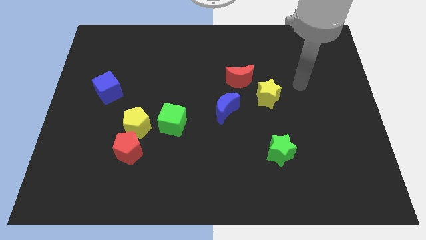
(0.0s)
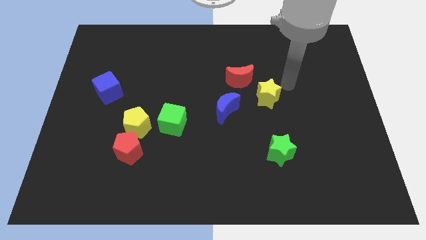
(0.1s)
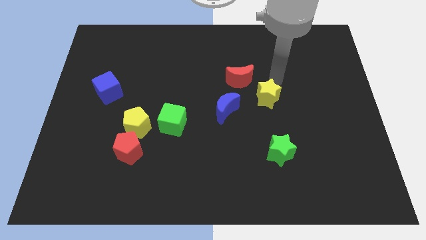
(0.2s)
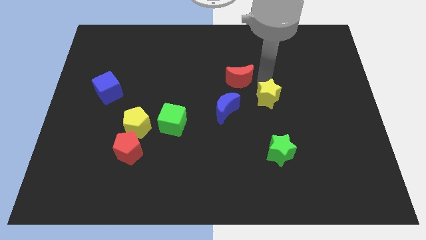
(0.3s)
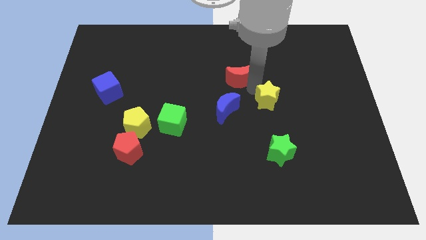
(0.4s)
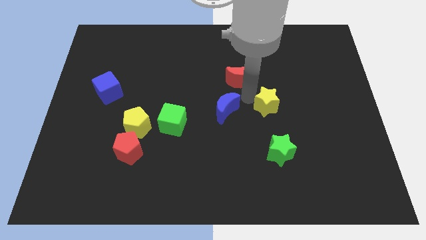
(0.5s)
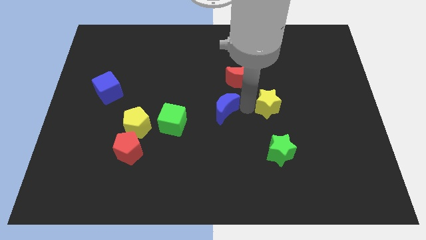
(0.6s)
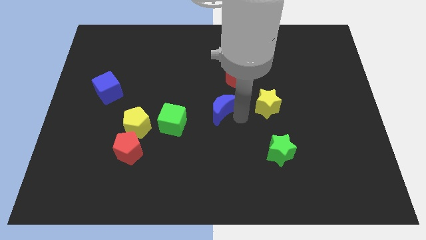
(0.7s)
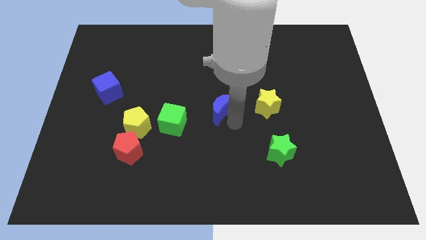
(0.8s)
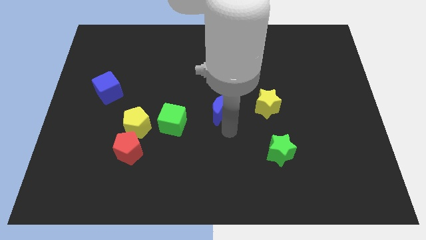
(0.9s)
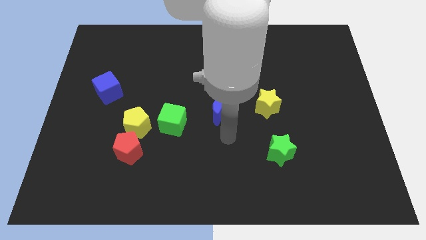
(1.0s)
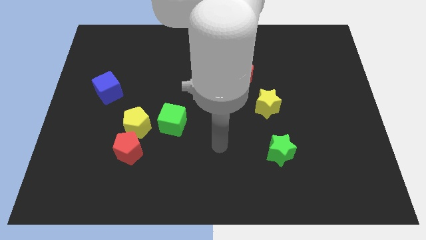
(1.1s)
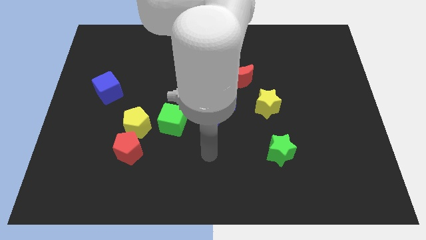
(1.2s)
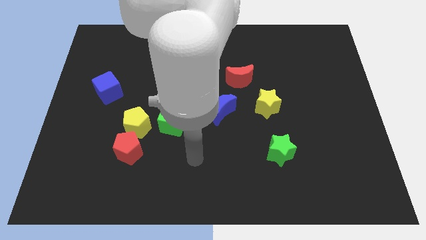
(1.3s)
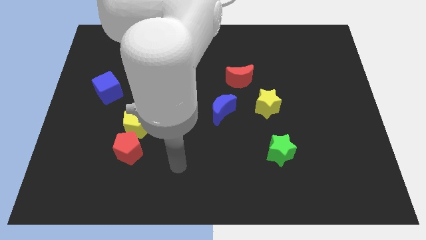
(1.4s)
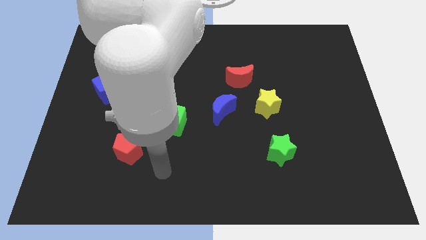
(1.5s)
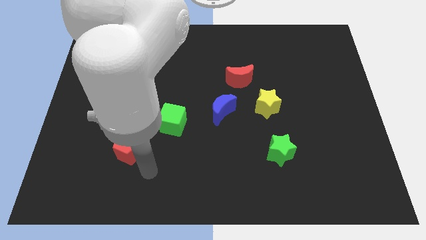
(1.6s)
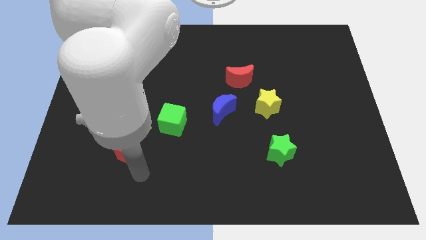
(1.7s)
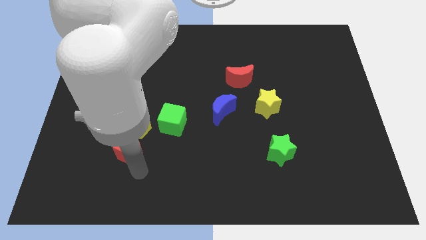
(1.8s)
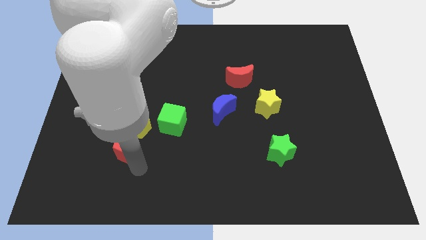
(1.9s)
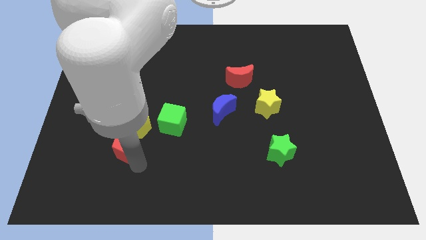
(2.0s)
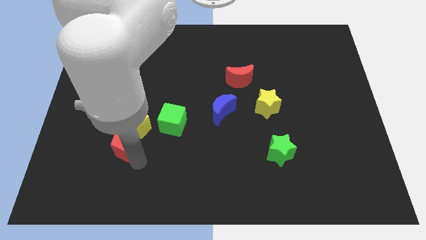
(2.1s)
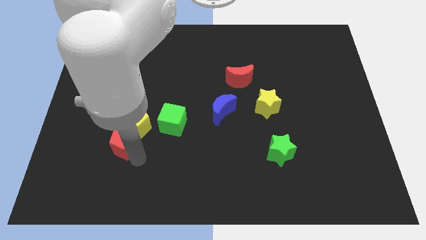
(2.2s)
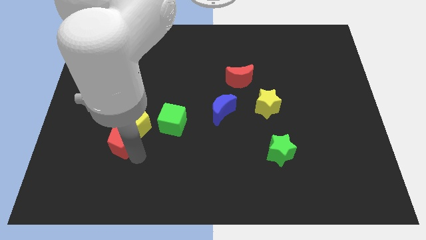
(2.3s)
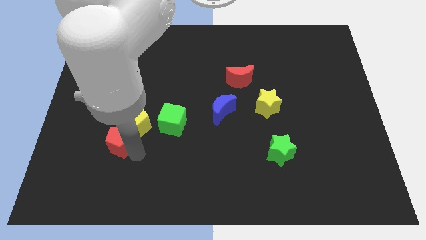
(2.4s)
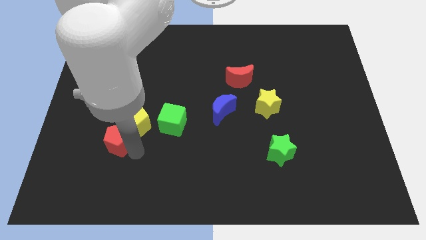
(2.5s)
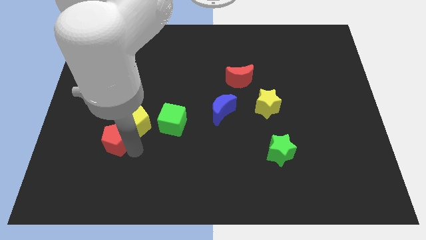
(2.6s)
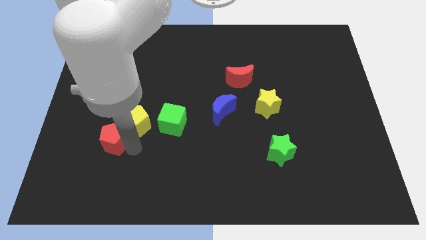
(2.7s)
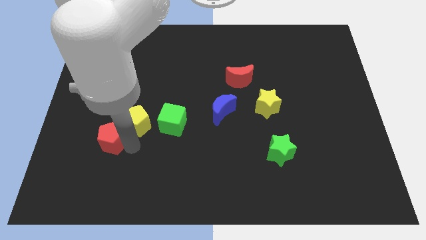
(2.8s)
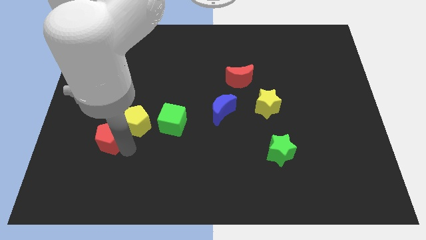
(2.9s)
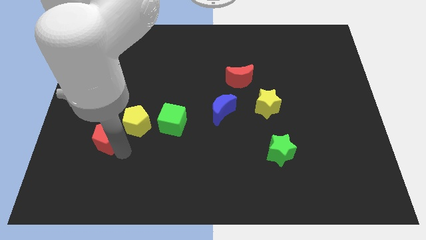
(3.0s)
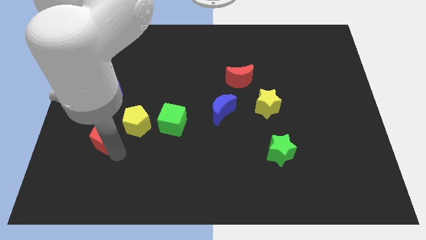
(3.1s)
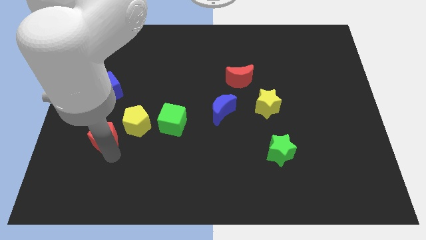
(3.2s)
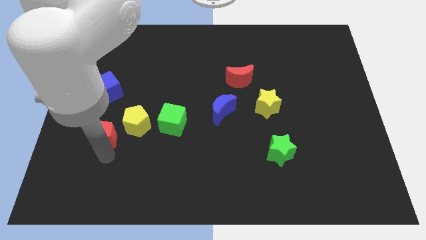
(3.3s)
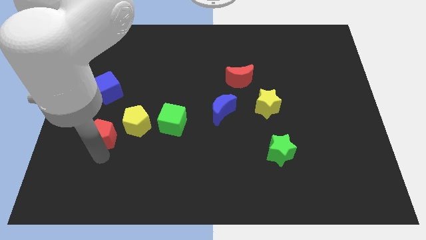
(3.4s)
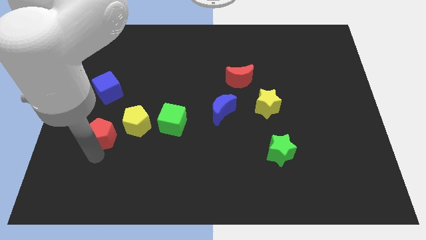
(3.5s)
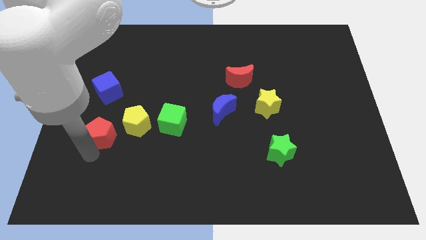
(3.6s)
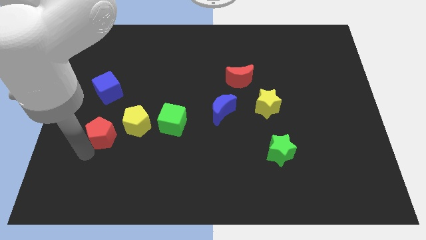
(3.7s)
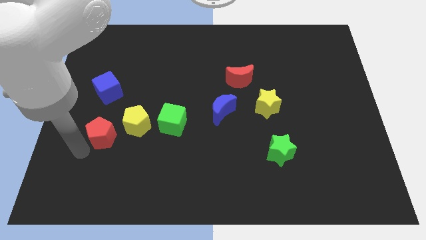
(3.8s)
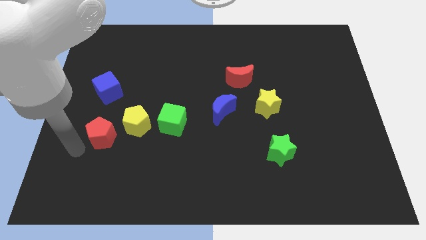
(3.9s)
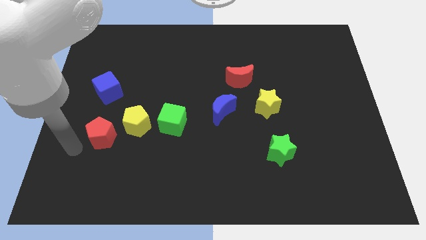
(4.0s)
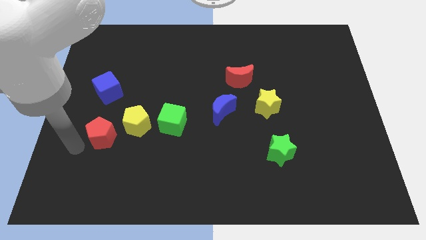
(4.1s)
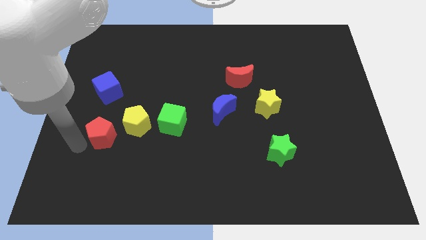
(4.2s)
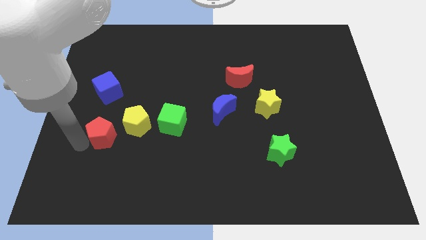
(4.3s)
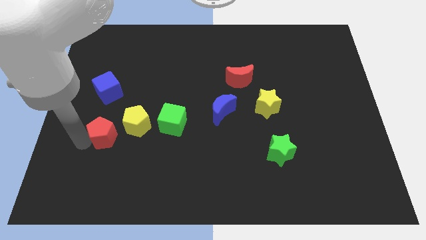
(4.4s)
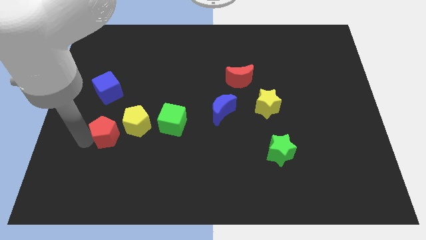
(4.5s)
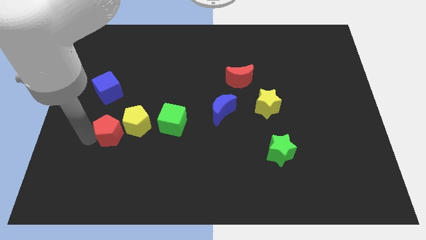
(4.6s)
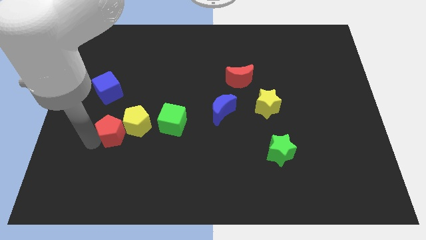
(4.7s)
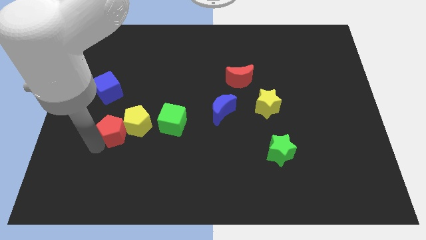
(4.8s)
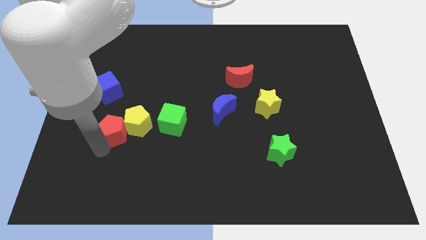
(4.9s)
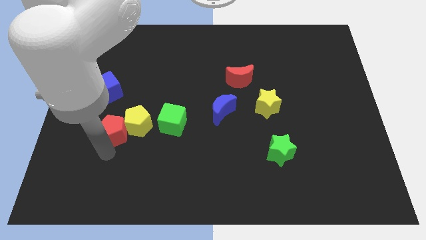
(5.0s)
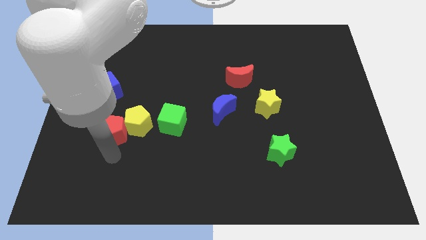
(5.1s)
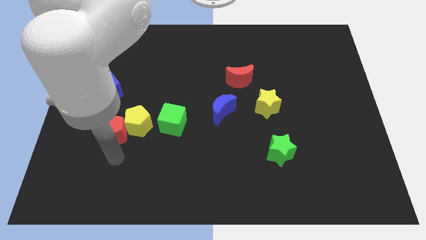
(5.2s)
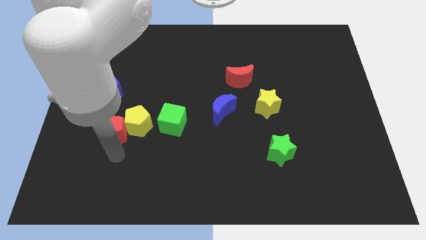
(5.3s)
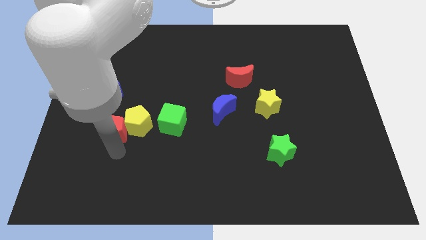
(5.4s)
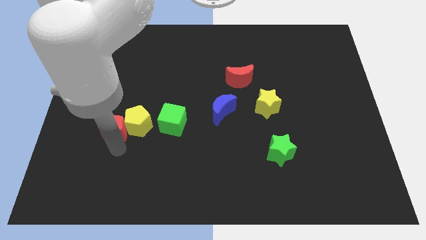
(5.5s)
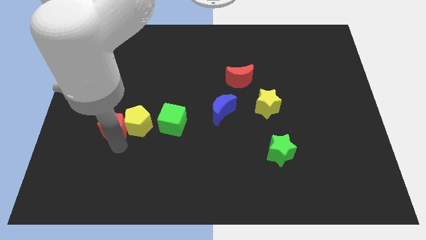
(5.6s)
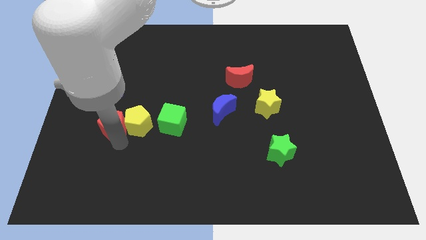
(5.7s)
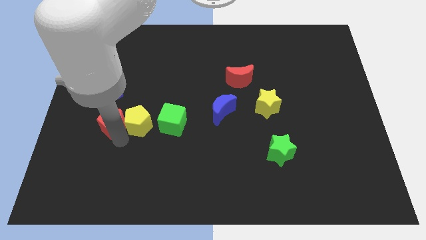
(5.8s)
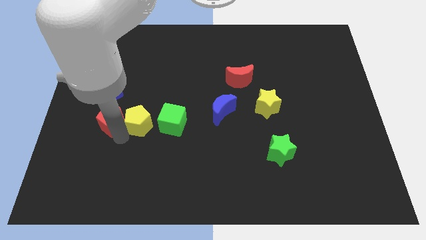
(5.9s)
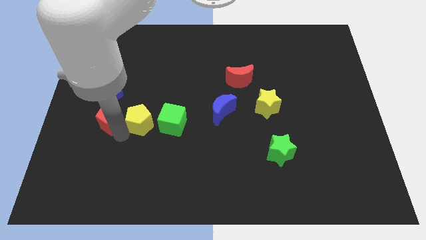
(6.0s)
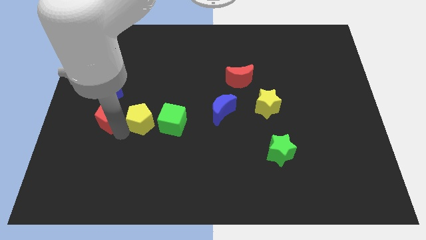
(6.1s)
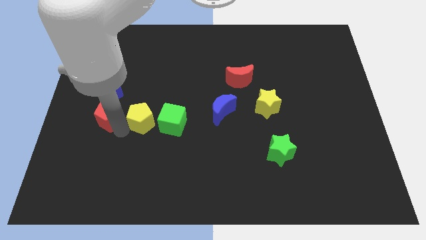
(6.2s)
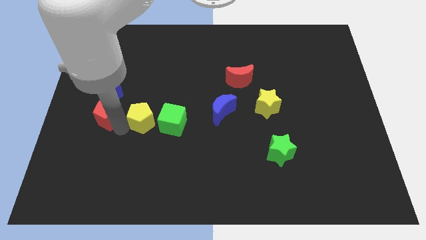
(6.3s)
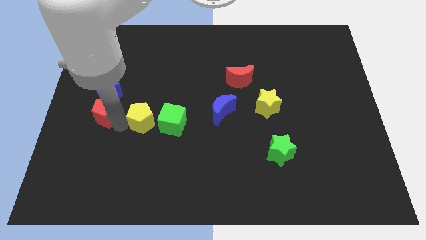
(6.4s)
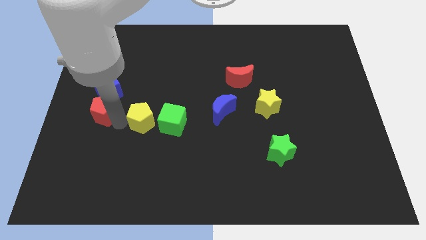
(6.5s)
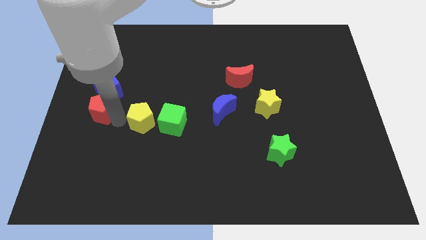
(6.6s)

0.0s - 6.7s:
push the red pentagon close to the blue cube
